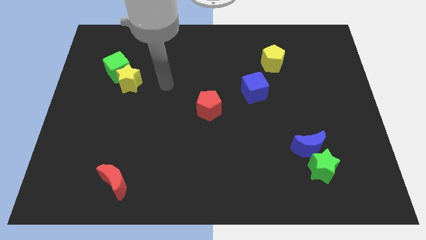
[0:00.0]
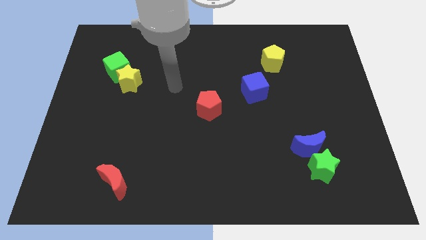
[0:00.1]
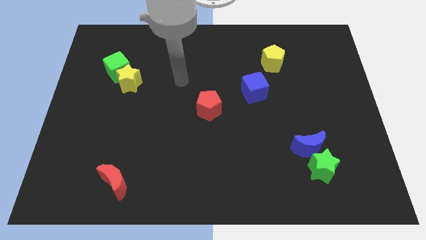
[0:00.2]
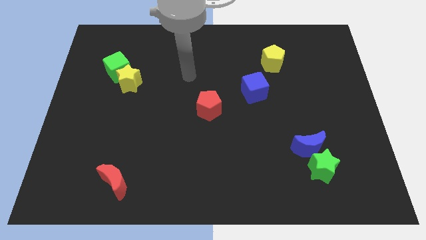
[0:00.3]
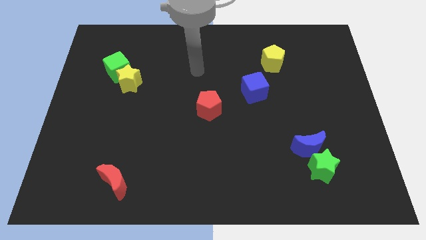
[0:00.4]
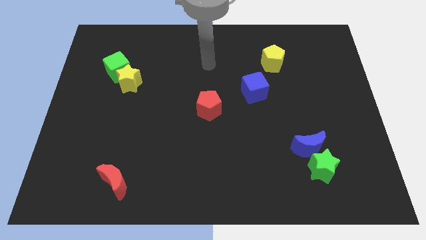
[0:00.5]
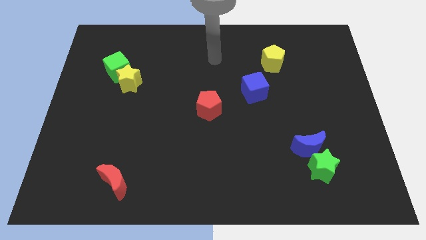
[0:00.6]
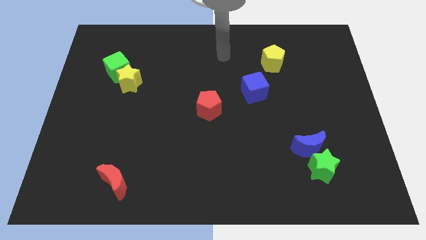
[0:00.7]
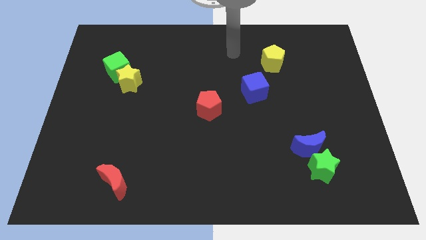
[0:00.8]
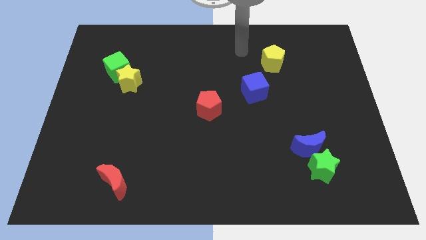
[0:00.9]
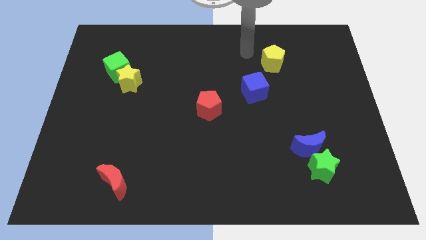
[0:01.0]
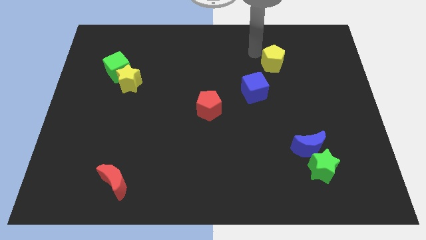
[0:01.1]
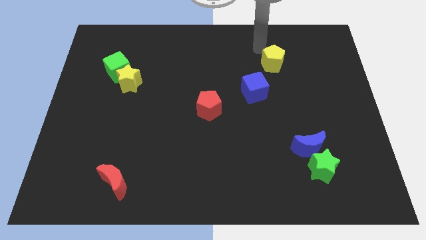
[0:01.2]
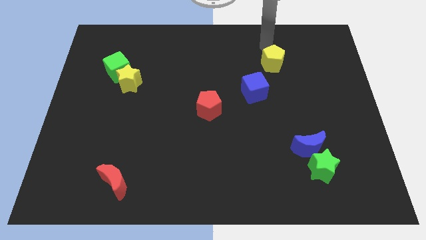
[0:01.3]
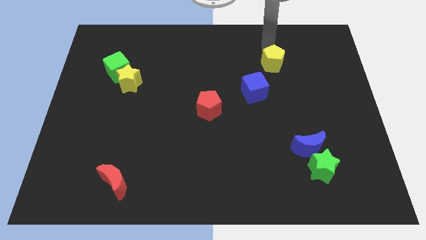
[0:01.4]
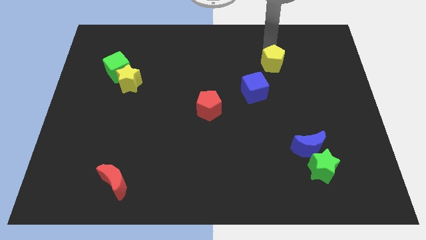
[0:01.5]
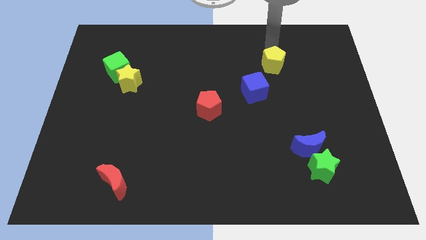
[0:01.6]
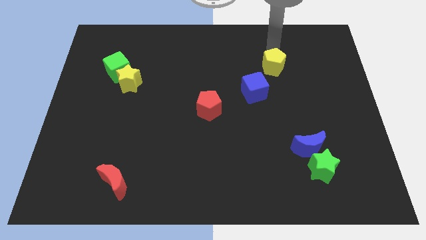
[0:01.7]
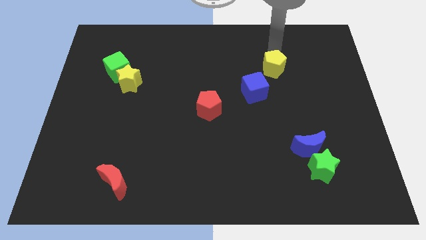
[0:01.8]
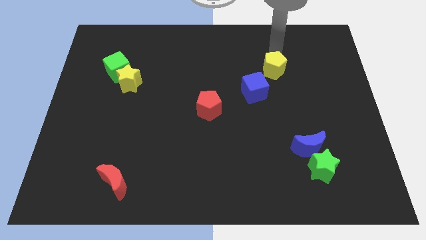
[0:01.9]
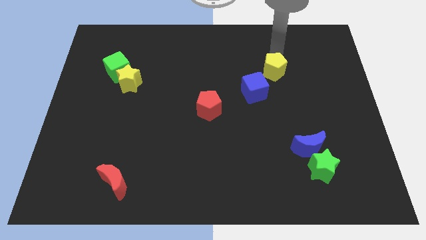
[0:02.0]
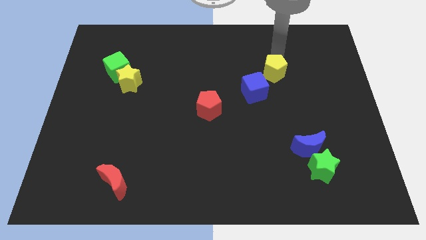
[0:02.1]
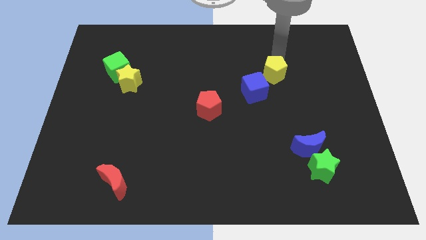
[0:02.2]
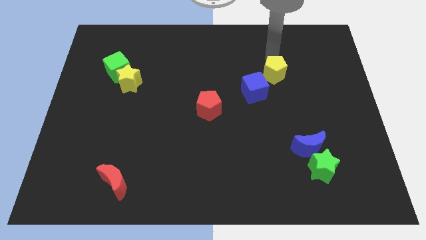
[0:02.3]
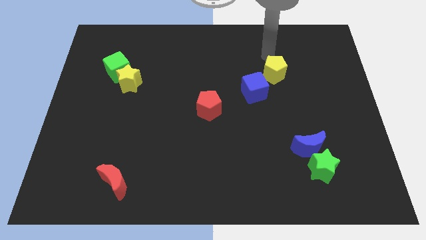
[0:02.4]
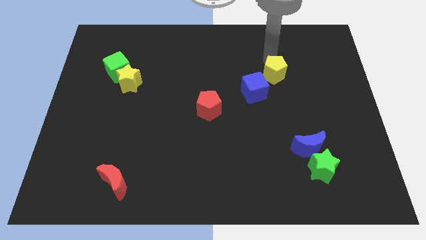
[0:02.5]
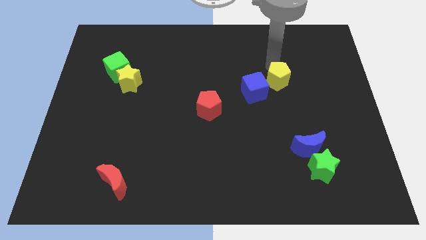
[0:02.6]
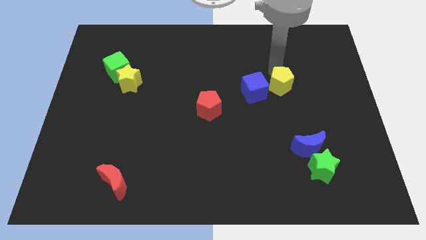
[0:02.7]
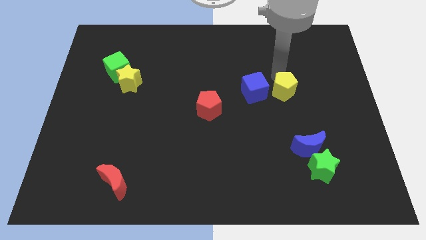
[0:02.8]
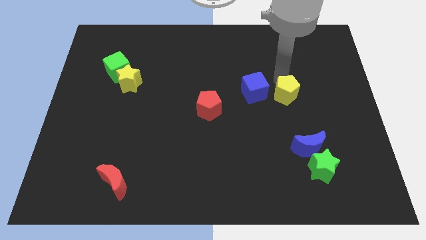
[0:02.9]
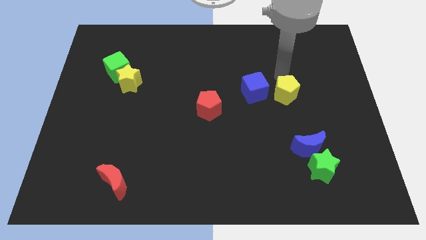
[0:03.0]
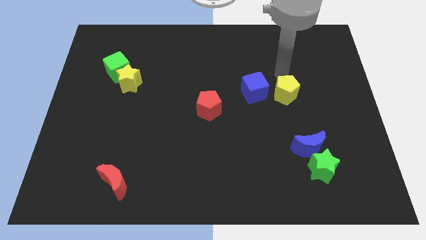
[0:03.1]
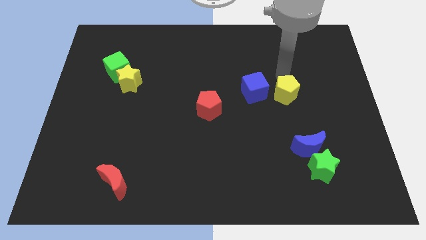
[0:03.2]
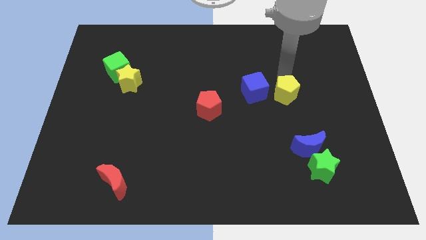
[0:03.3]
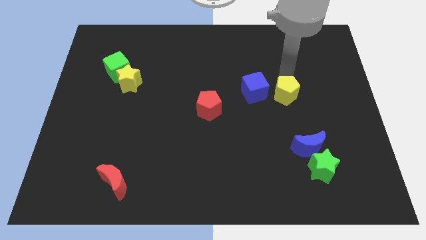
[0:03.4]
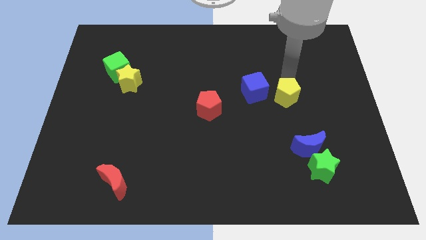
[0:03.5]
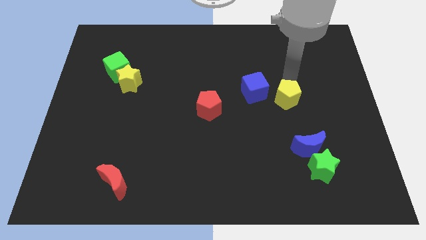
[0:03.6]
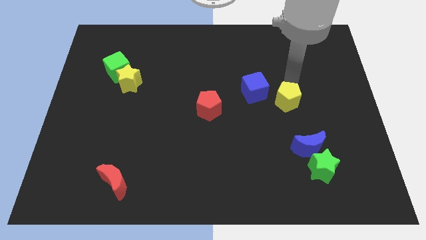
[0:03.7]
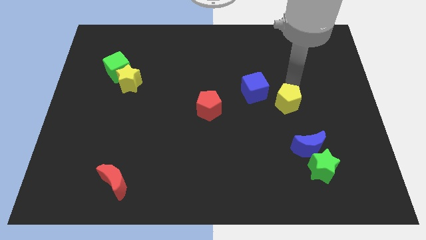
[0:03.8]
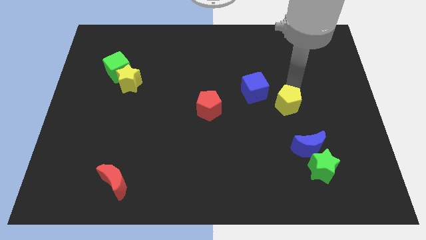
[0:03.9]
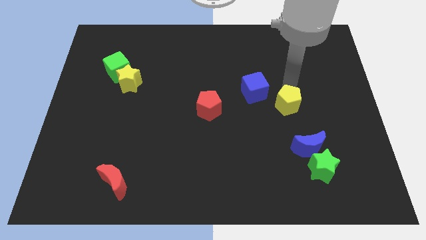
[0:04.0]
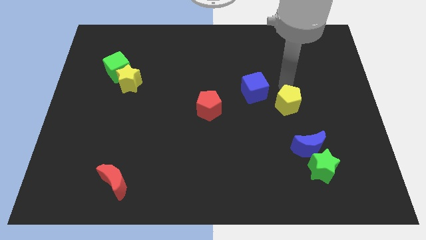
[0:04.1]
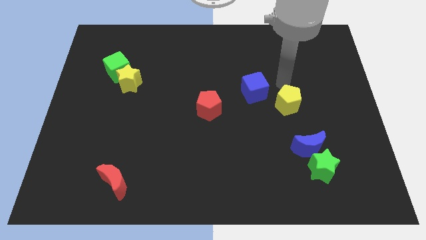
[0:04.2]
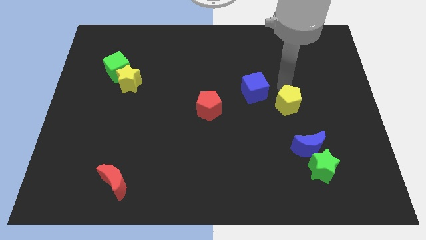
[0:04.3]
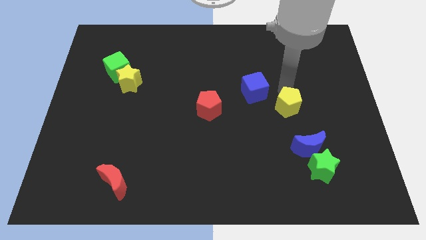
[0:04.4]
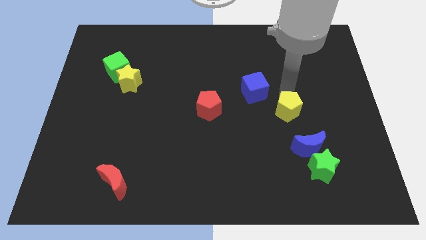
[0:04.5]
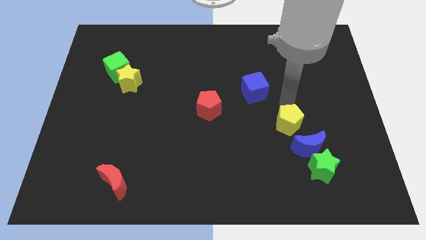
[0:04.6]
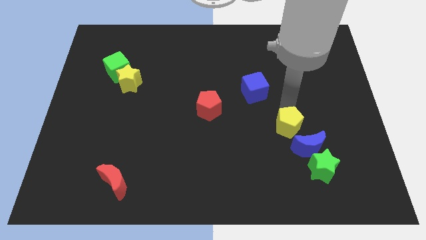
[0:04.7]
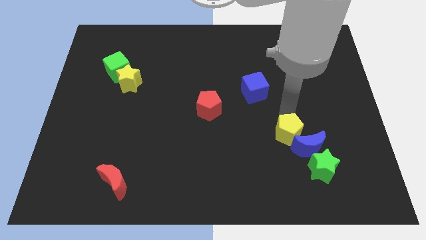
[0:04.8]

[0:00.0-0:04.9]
slide the yellow pentagon next to the blue moon

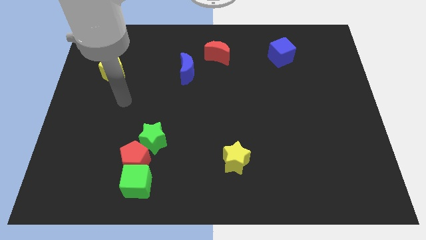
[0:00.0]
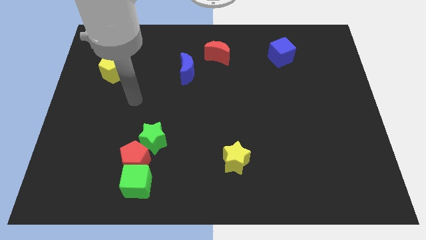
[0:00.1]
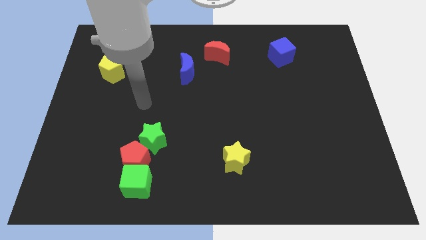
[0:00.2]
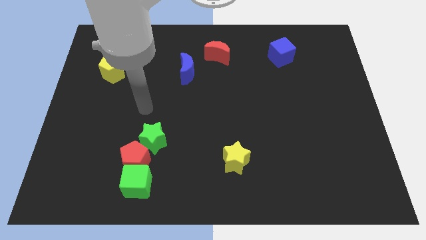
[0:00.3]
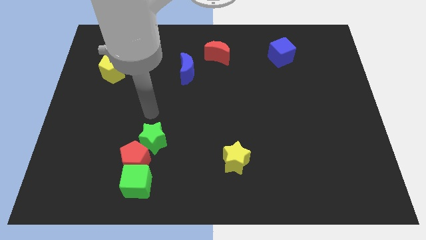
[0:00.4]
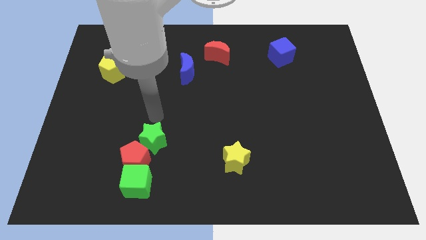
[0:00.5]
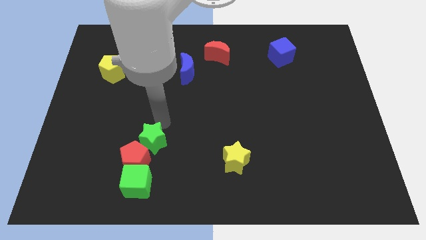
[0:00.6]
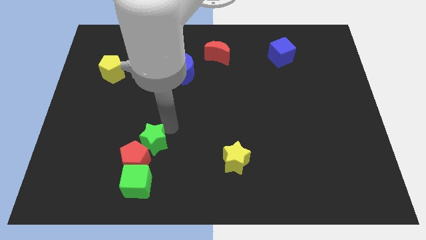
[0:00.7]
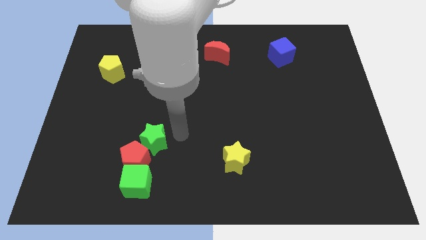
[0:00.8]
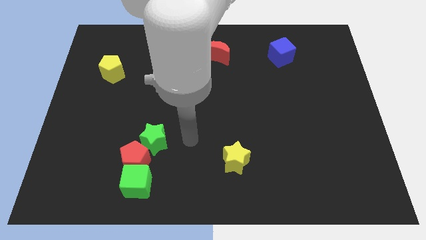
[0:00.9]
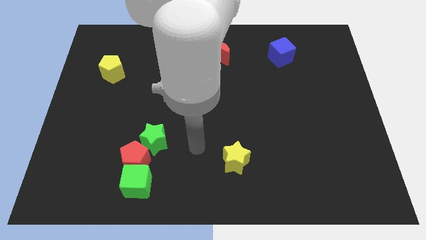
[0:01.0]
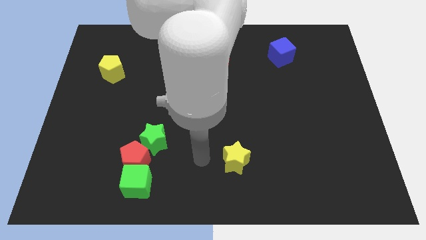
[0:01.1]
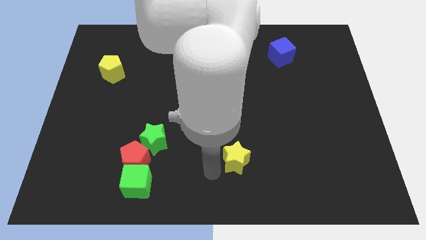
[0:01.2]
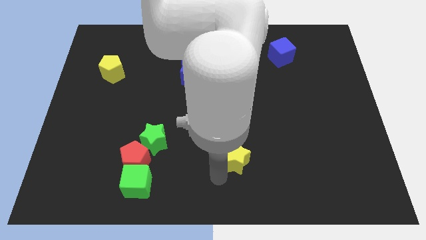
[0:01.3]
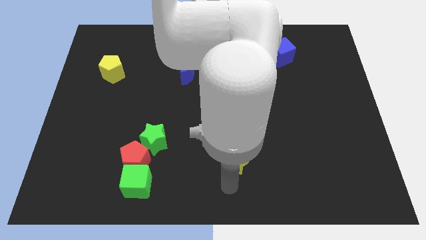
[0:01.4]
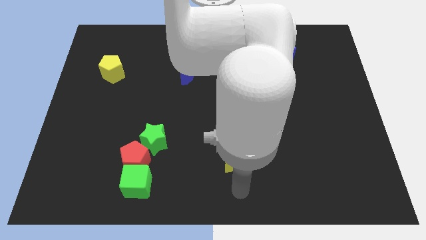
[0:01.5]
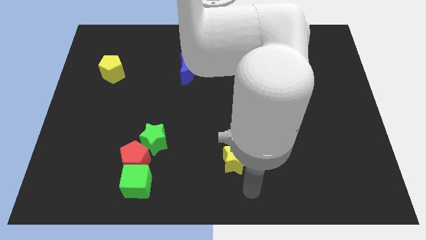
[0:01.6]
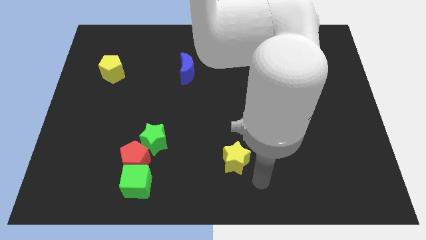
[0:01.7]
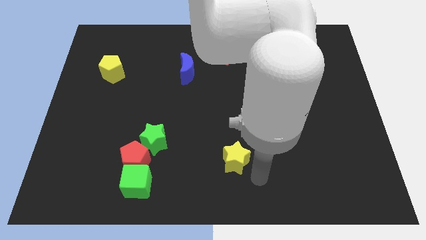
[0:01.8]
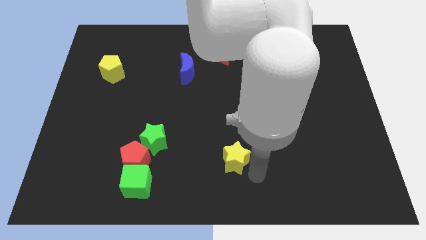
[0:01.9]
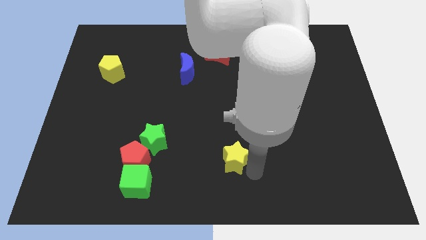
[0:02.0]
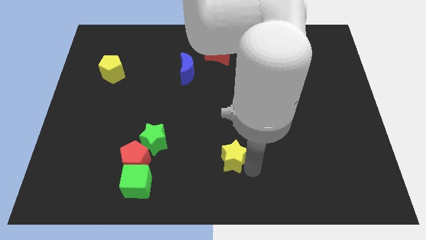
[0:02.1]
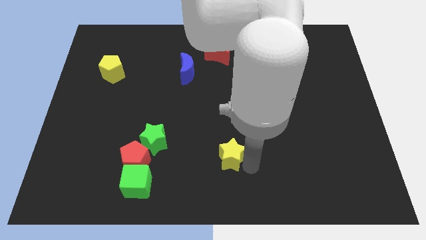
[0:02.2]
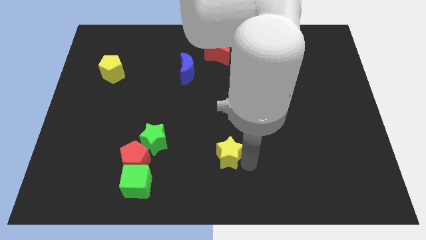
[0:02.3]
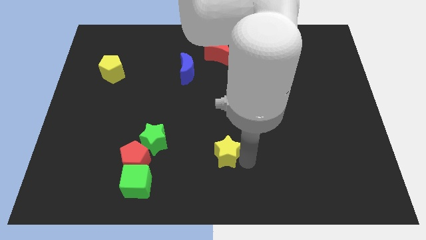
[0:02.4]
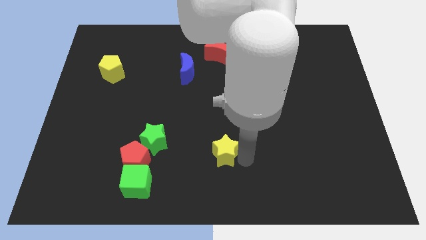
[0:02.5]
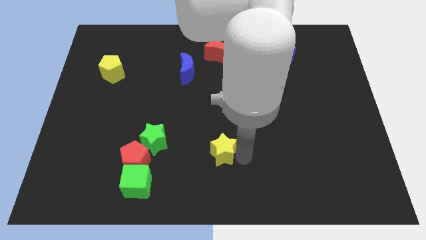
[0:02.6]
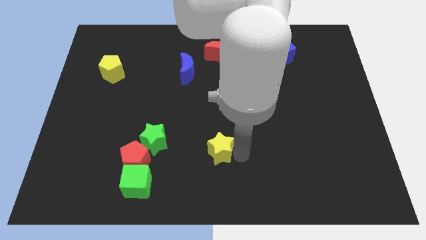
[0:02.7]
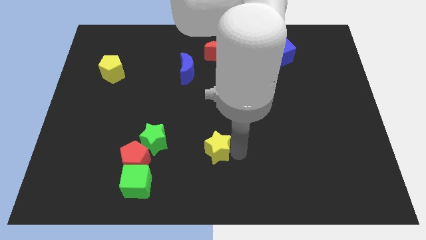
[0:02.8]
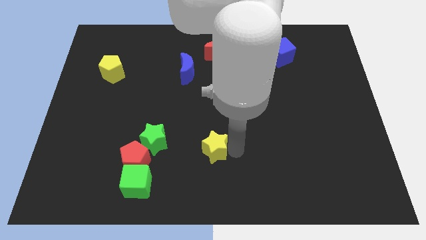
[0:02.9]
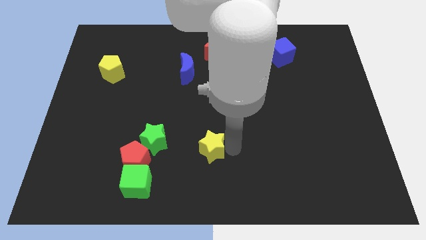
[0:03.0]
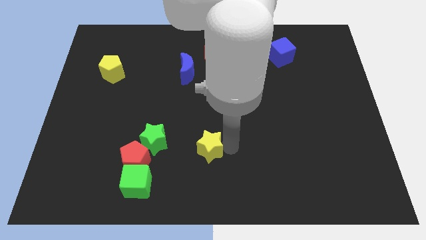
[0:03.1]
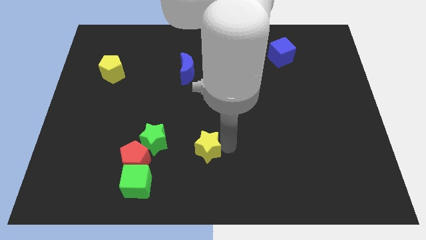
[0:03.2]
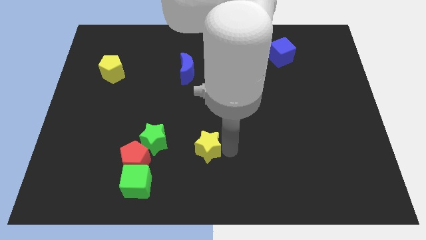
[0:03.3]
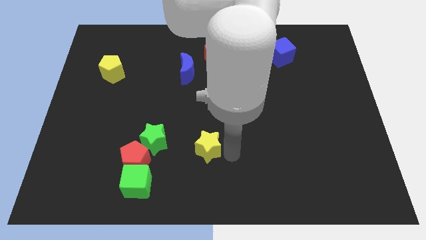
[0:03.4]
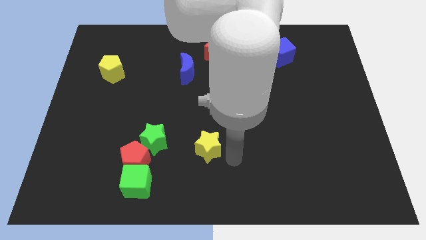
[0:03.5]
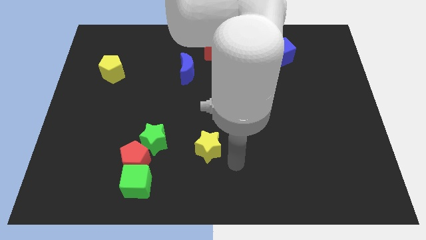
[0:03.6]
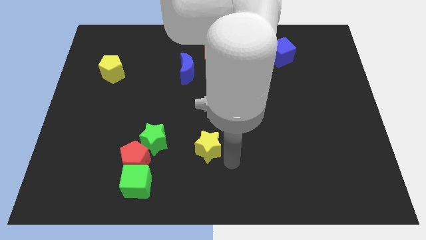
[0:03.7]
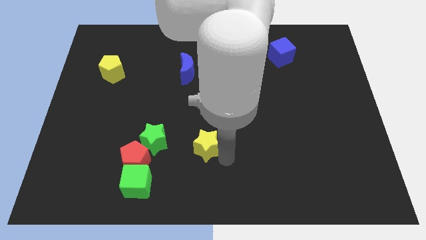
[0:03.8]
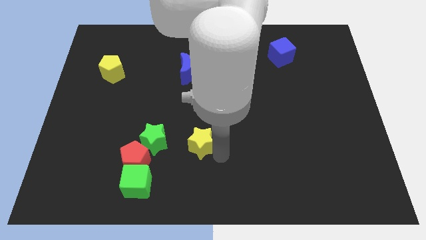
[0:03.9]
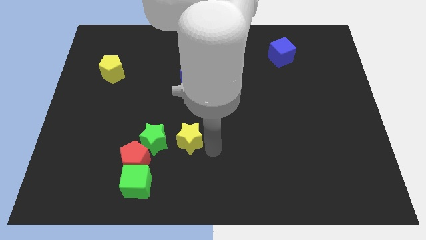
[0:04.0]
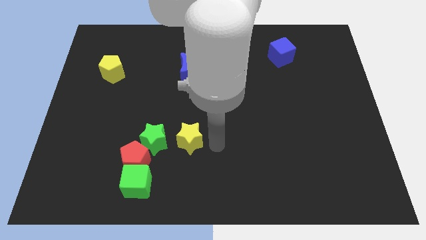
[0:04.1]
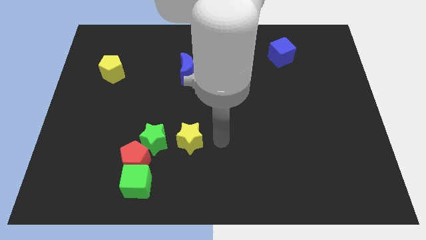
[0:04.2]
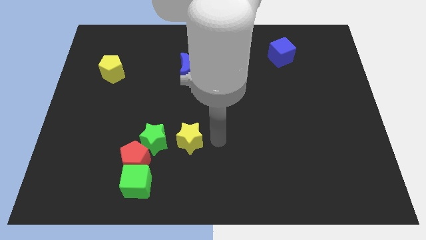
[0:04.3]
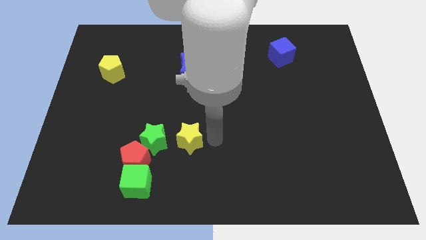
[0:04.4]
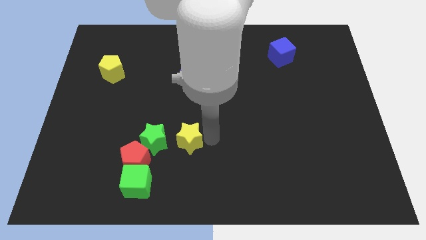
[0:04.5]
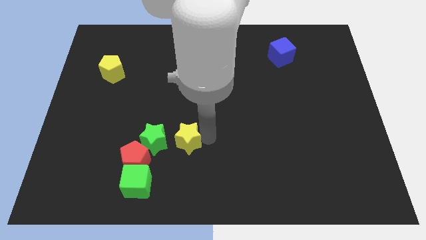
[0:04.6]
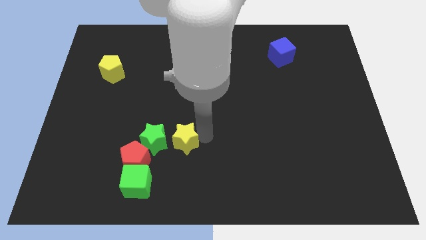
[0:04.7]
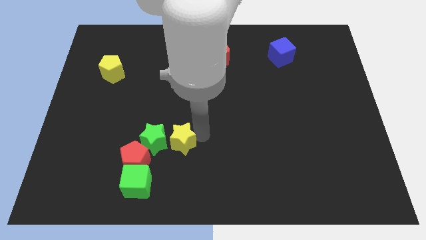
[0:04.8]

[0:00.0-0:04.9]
move the yellow star close to the green star
